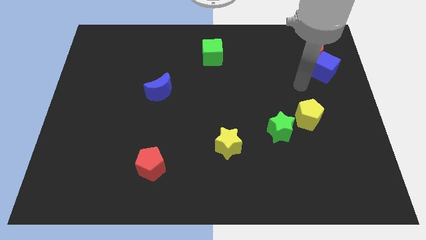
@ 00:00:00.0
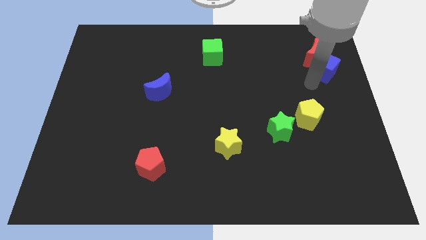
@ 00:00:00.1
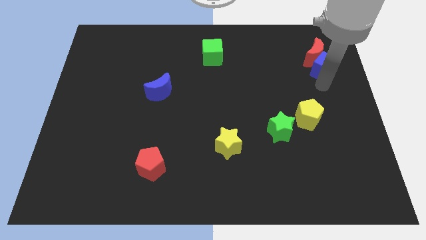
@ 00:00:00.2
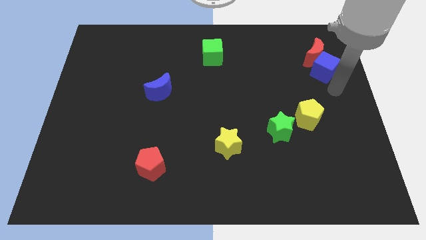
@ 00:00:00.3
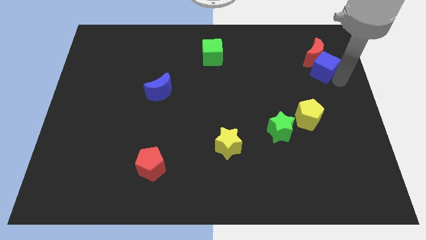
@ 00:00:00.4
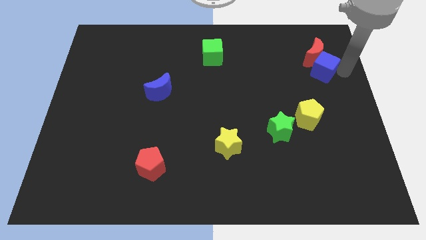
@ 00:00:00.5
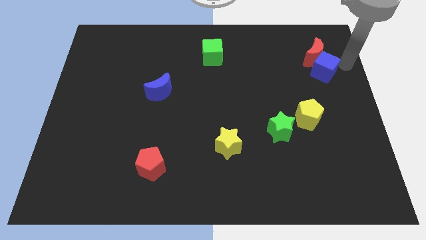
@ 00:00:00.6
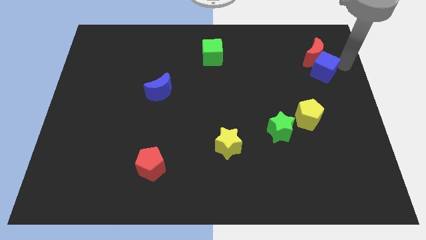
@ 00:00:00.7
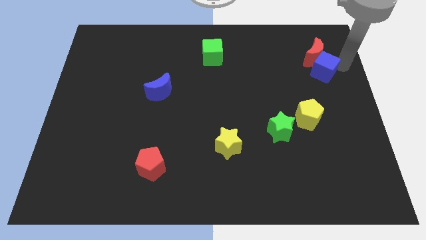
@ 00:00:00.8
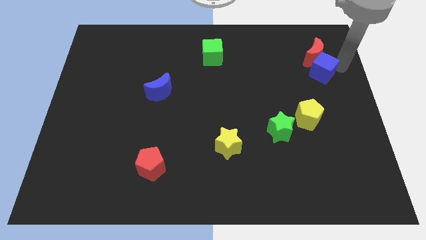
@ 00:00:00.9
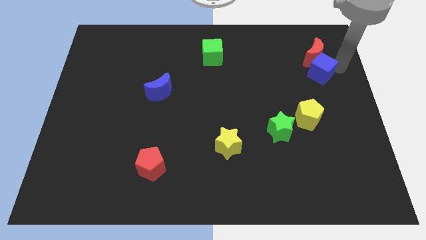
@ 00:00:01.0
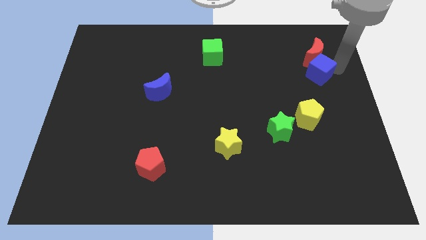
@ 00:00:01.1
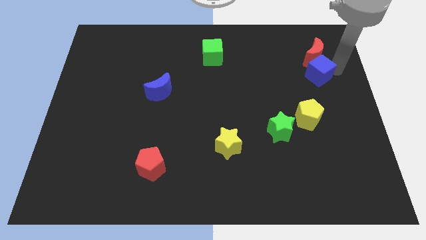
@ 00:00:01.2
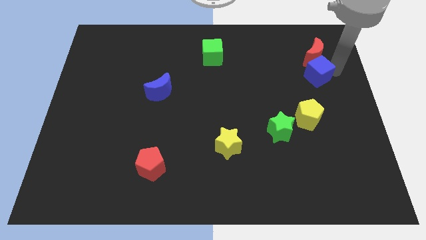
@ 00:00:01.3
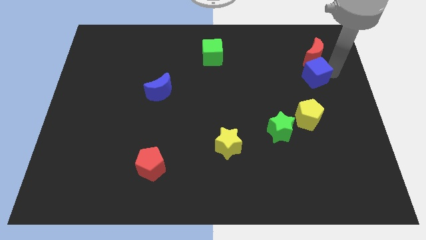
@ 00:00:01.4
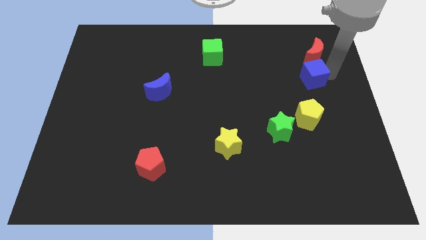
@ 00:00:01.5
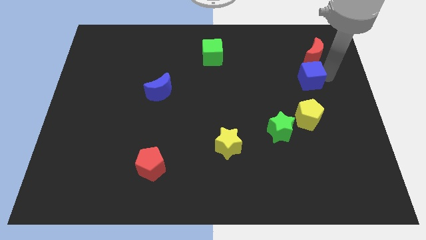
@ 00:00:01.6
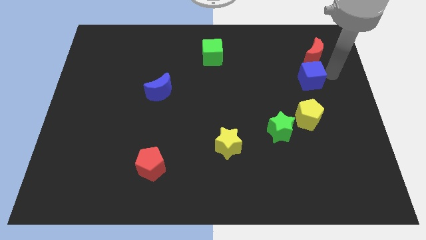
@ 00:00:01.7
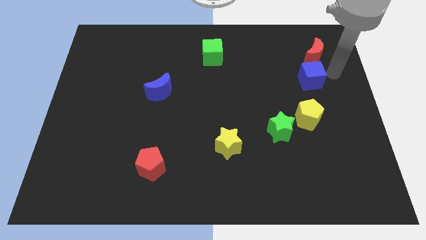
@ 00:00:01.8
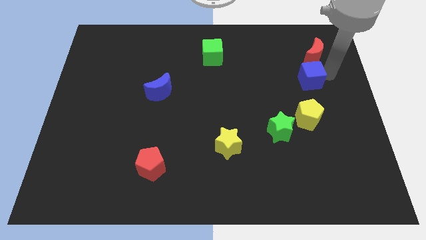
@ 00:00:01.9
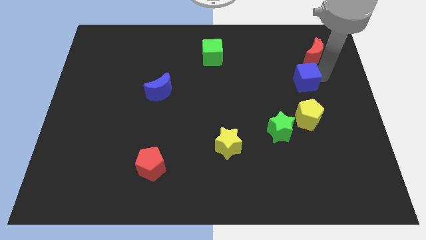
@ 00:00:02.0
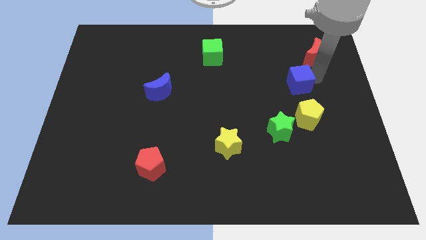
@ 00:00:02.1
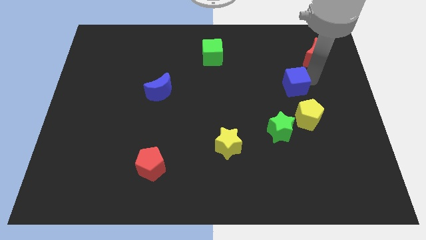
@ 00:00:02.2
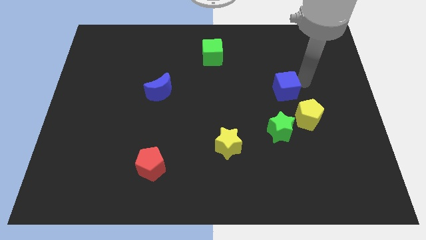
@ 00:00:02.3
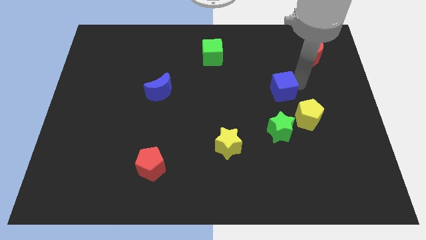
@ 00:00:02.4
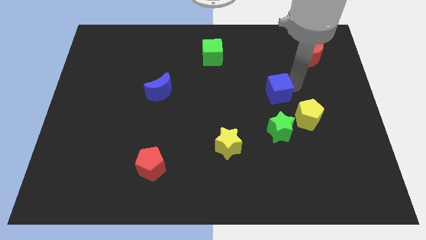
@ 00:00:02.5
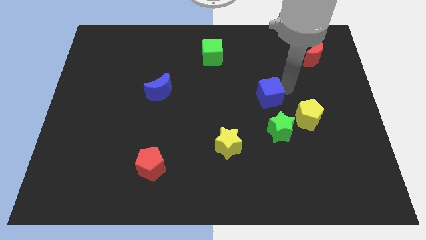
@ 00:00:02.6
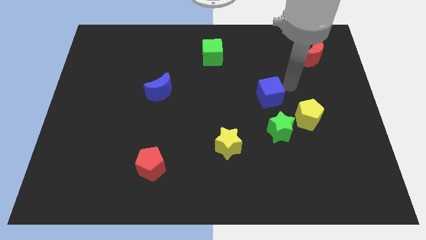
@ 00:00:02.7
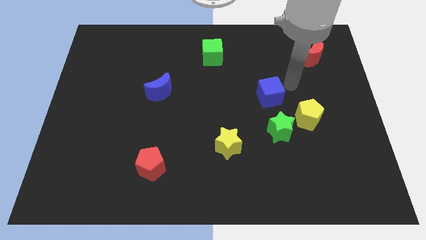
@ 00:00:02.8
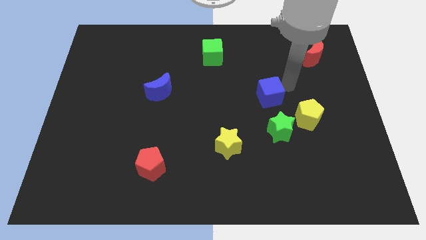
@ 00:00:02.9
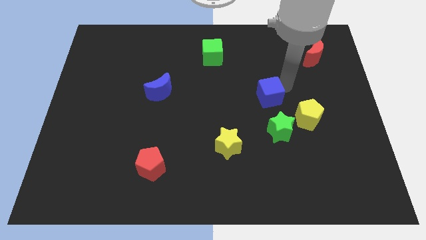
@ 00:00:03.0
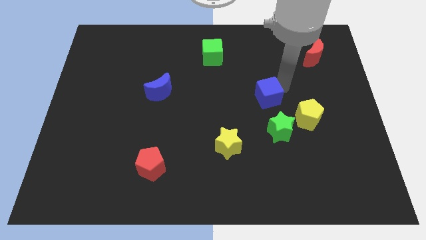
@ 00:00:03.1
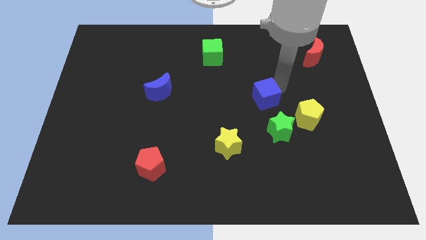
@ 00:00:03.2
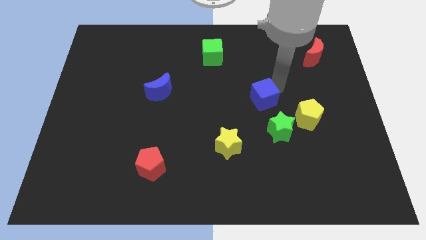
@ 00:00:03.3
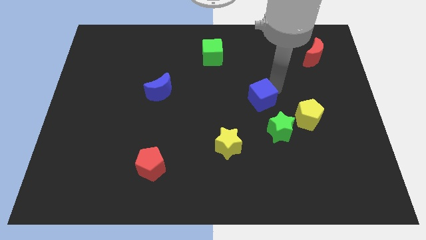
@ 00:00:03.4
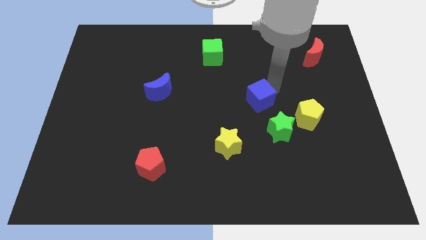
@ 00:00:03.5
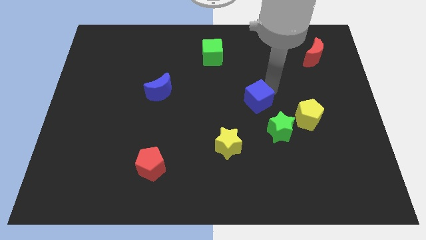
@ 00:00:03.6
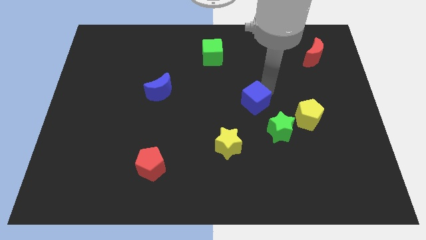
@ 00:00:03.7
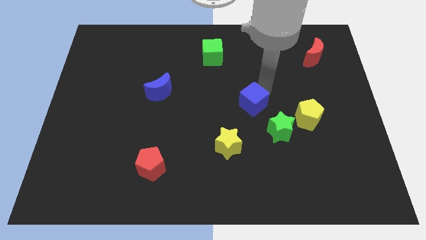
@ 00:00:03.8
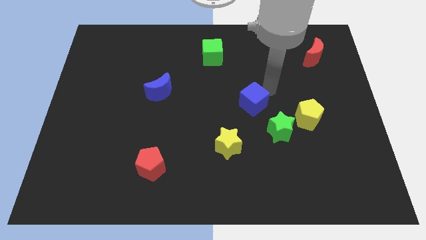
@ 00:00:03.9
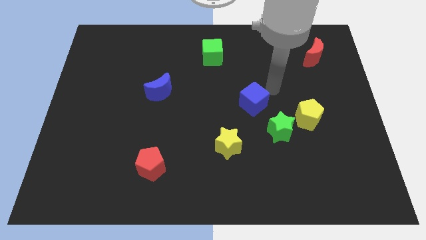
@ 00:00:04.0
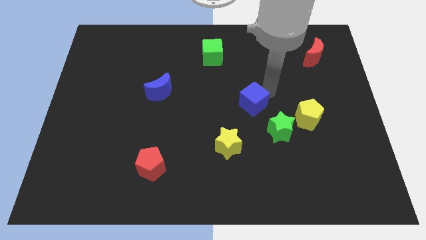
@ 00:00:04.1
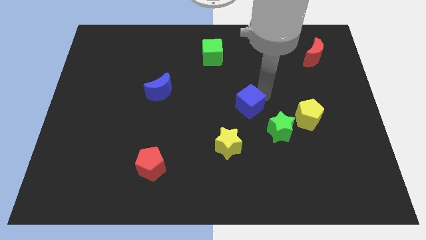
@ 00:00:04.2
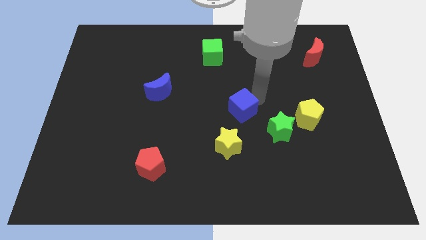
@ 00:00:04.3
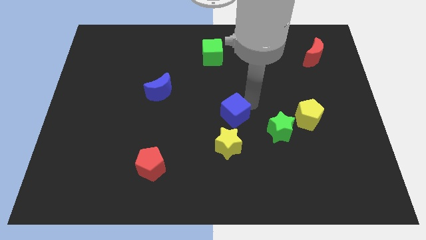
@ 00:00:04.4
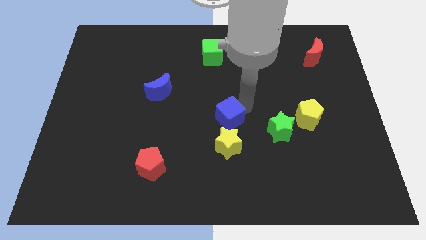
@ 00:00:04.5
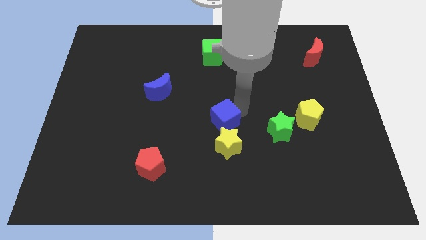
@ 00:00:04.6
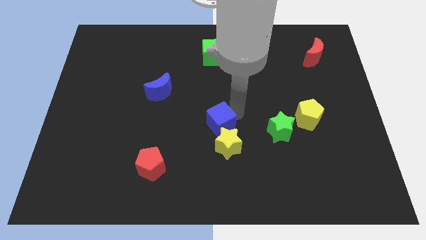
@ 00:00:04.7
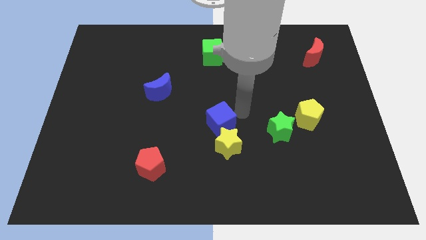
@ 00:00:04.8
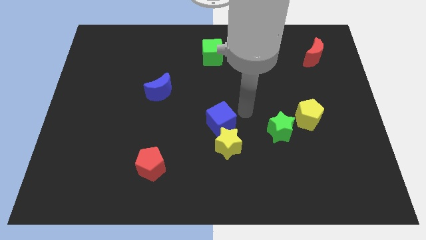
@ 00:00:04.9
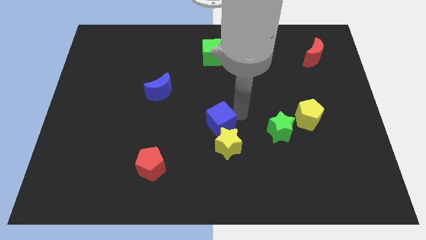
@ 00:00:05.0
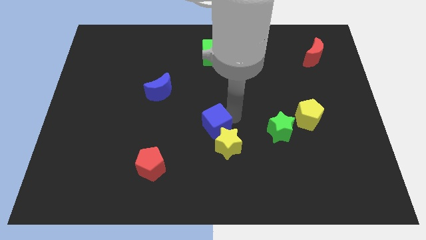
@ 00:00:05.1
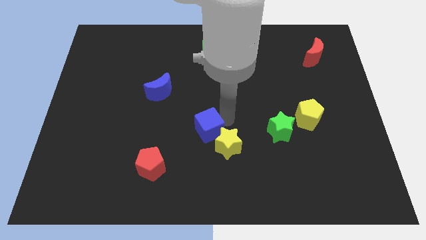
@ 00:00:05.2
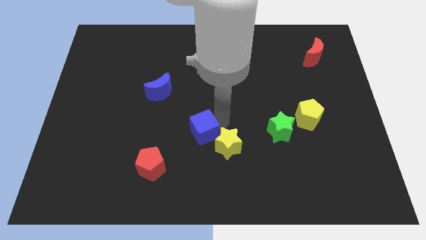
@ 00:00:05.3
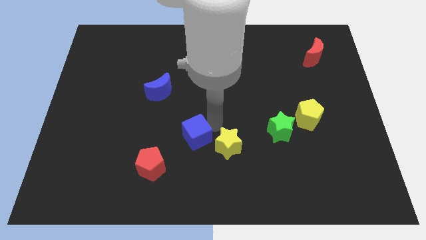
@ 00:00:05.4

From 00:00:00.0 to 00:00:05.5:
move the blue cube to the top right of the red pentagon

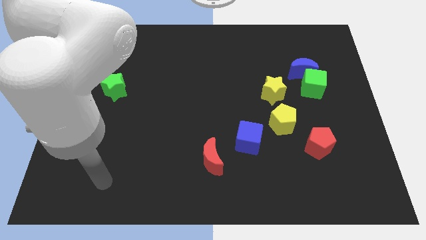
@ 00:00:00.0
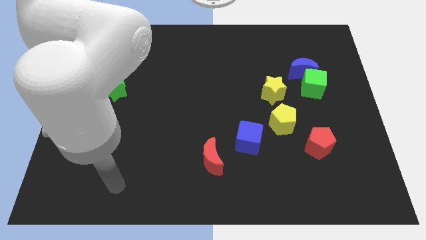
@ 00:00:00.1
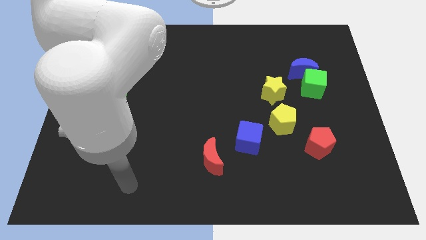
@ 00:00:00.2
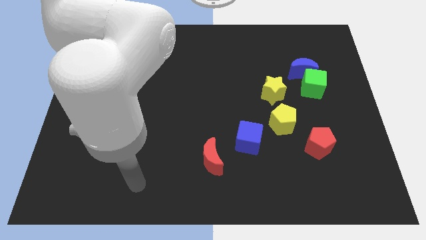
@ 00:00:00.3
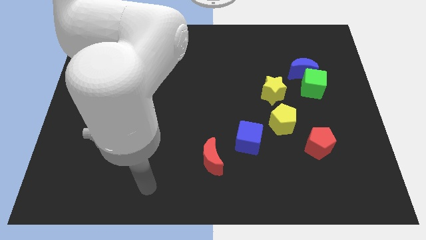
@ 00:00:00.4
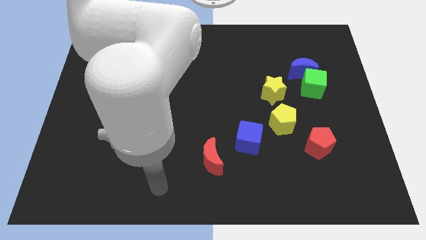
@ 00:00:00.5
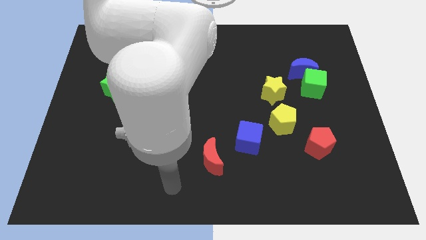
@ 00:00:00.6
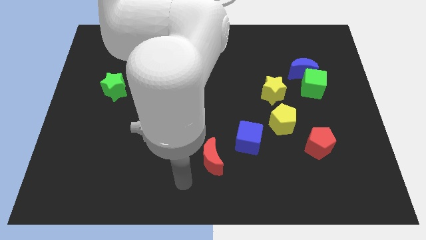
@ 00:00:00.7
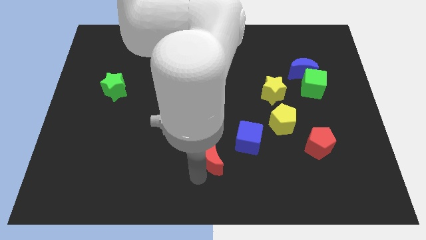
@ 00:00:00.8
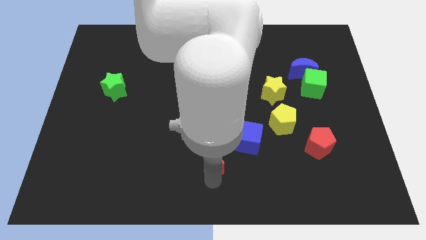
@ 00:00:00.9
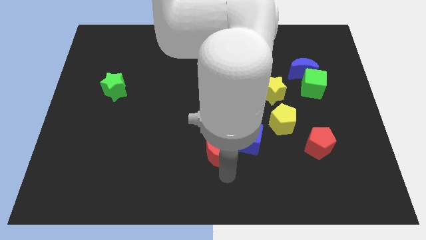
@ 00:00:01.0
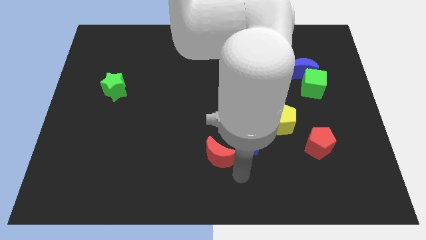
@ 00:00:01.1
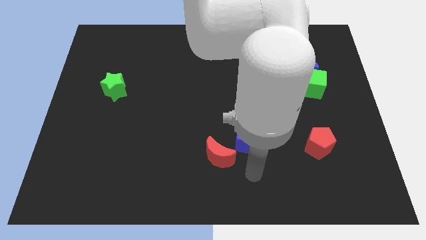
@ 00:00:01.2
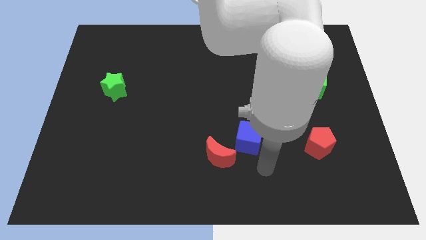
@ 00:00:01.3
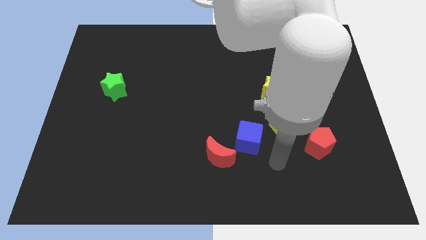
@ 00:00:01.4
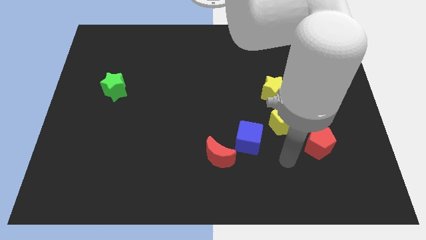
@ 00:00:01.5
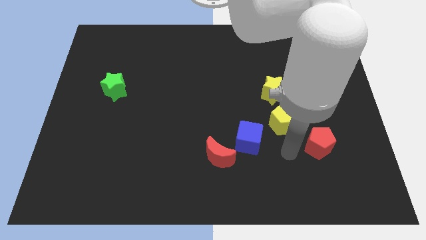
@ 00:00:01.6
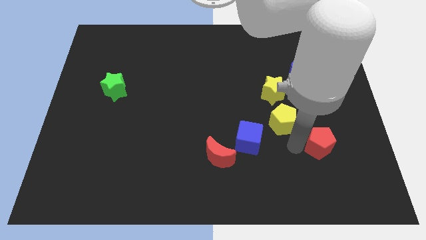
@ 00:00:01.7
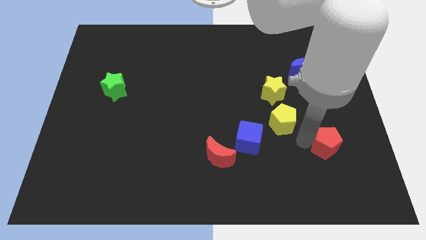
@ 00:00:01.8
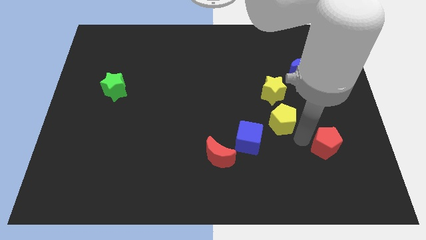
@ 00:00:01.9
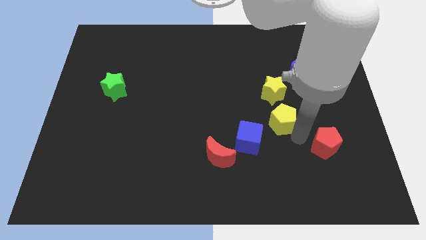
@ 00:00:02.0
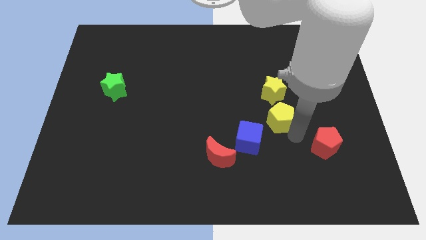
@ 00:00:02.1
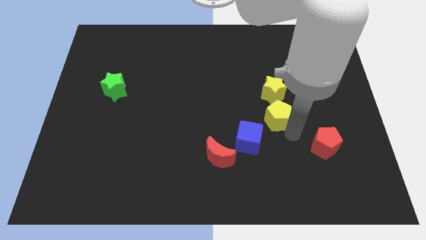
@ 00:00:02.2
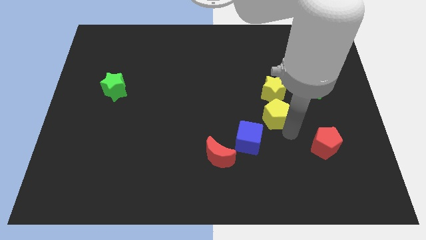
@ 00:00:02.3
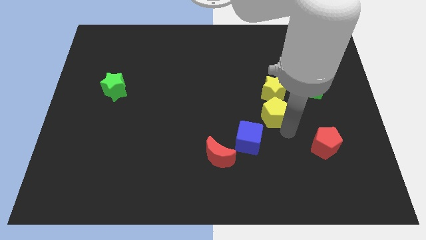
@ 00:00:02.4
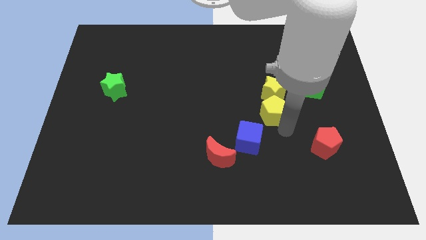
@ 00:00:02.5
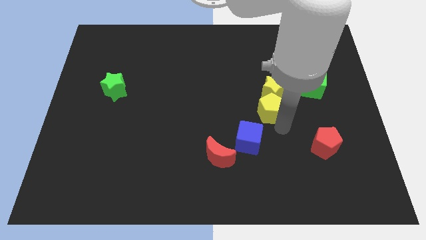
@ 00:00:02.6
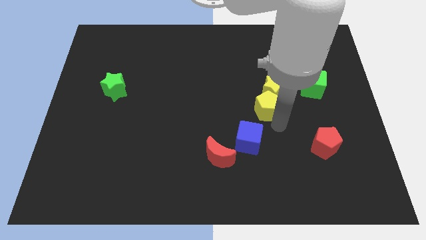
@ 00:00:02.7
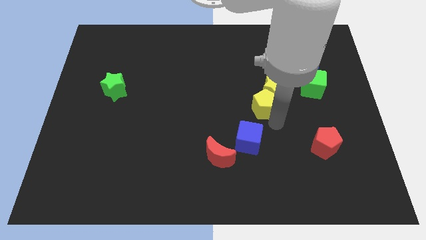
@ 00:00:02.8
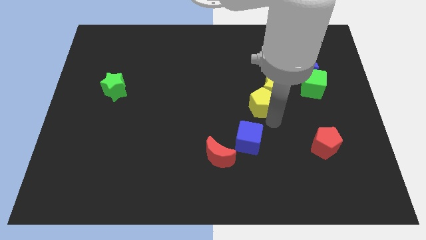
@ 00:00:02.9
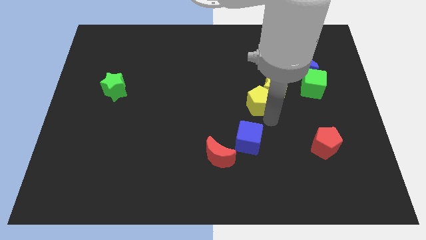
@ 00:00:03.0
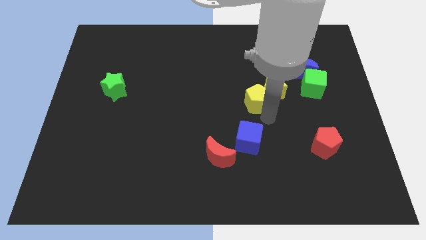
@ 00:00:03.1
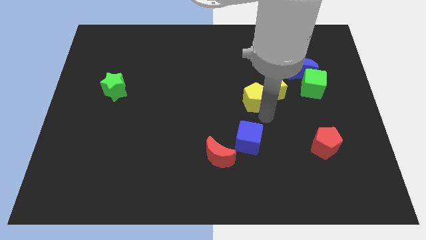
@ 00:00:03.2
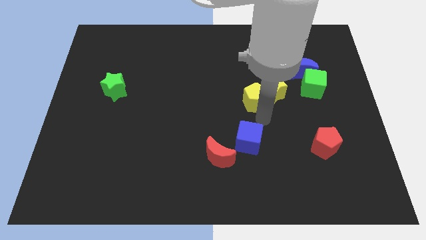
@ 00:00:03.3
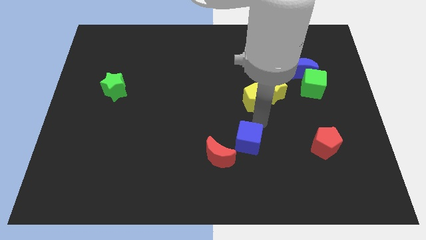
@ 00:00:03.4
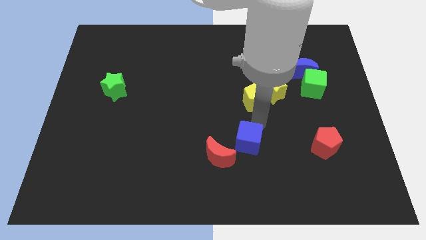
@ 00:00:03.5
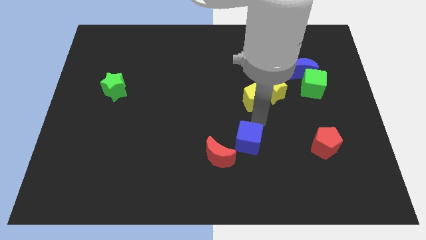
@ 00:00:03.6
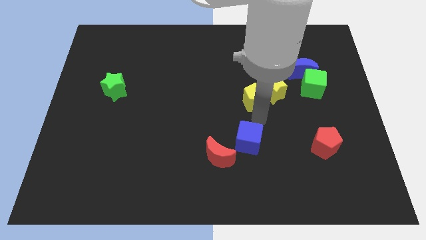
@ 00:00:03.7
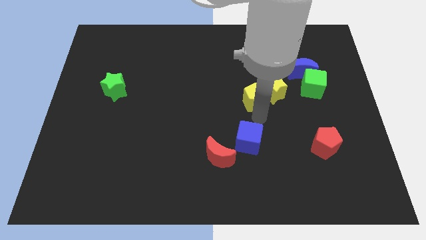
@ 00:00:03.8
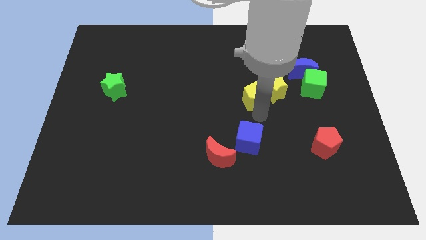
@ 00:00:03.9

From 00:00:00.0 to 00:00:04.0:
put the yellow pentagon to the left side of the green cube
